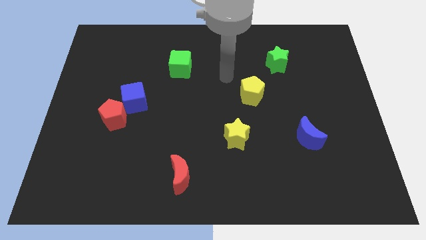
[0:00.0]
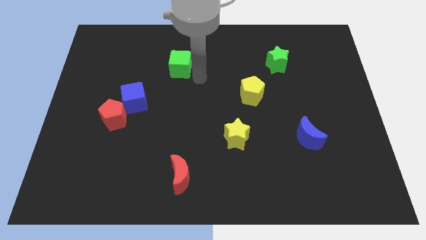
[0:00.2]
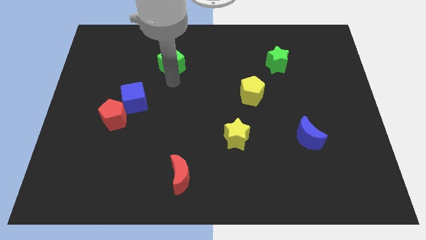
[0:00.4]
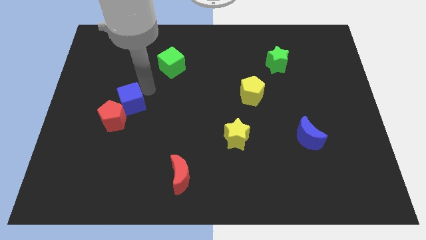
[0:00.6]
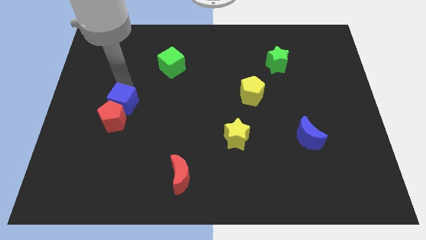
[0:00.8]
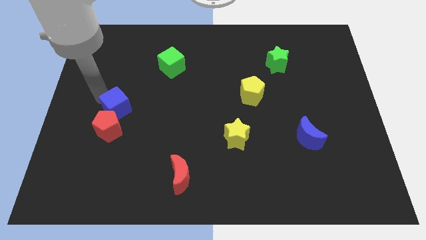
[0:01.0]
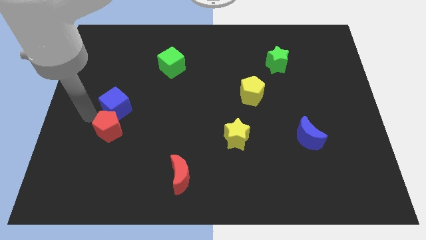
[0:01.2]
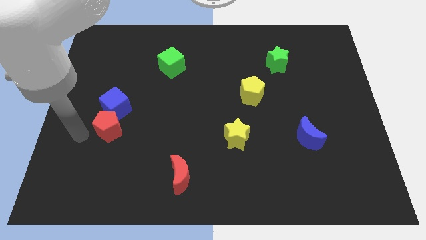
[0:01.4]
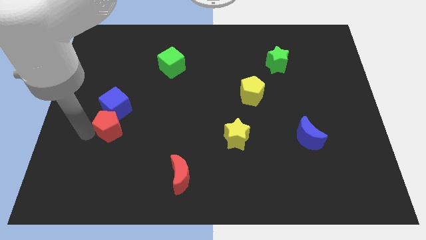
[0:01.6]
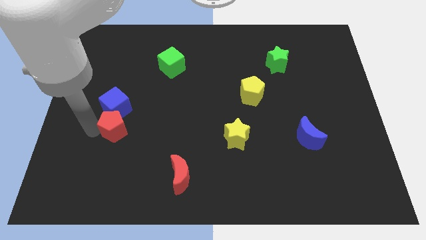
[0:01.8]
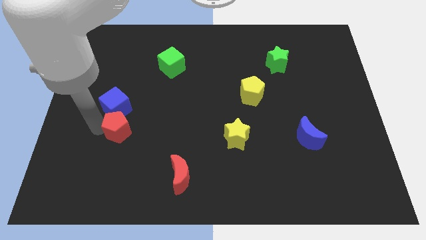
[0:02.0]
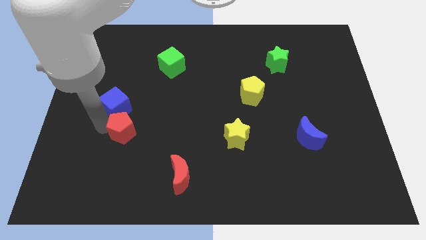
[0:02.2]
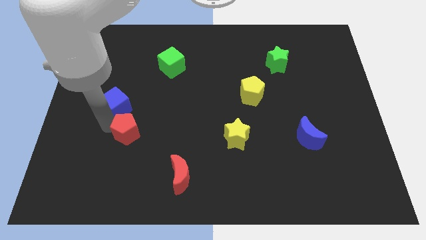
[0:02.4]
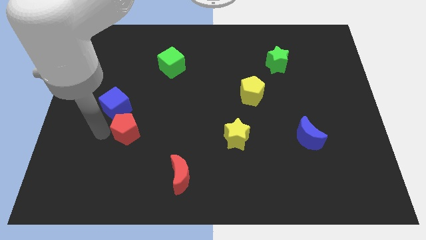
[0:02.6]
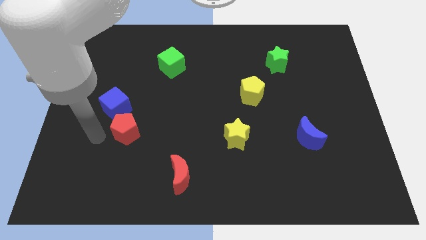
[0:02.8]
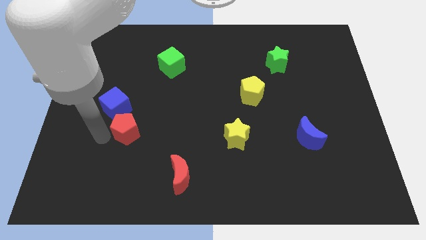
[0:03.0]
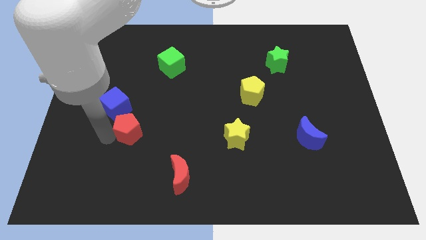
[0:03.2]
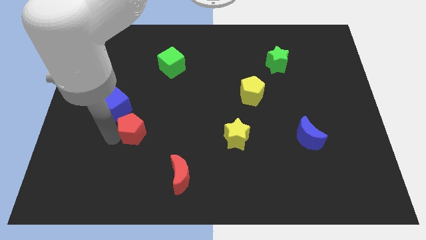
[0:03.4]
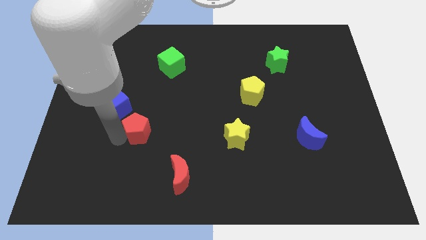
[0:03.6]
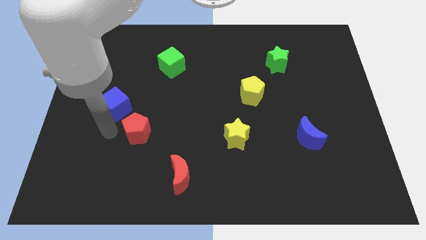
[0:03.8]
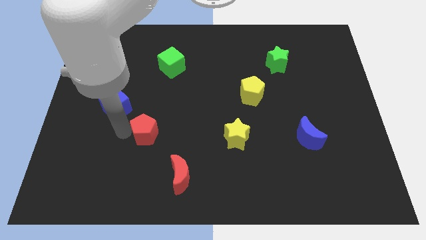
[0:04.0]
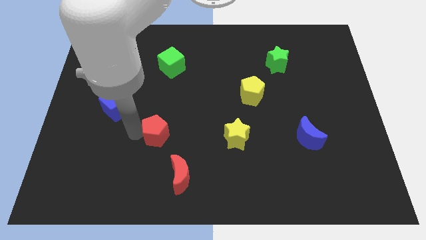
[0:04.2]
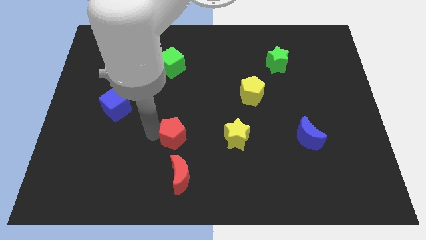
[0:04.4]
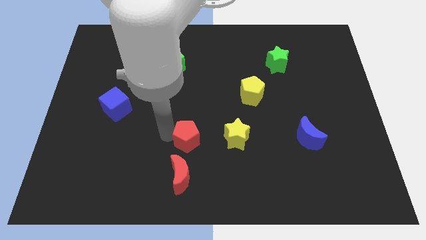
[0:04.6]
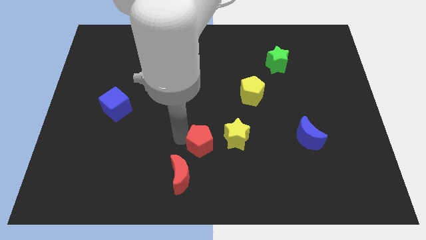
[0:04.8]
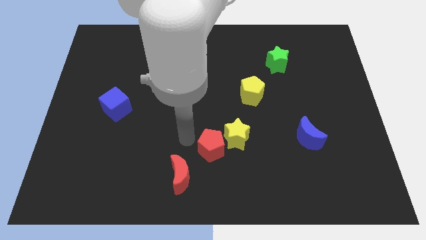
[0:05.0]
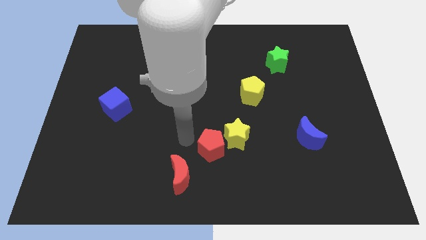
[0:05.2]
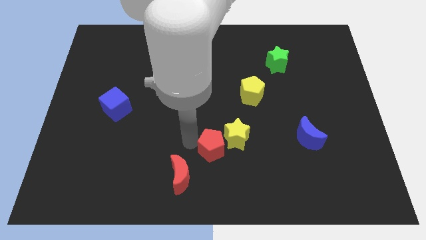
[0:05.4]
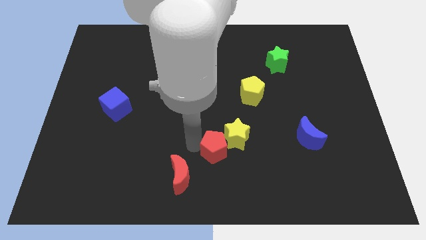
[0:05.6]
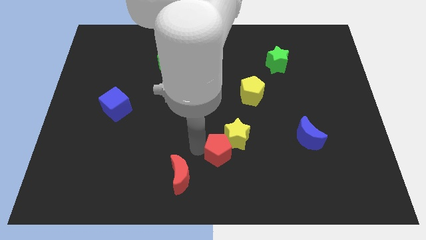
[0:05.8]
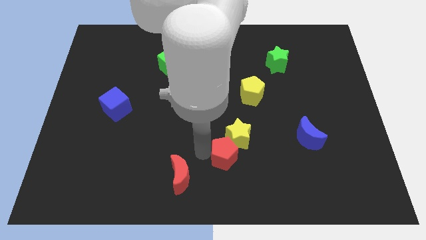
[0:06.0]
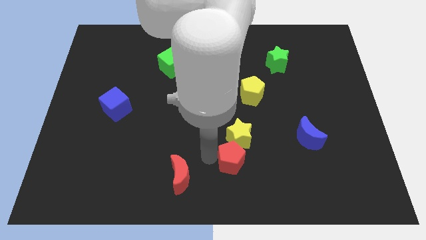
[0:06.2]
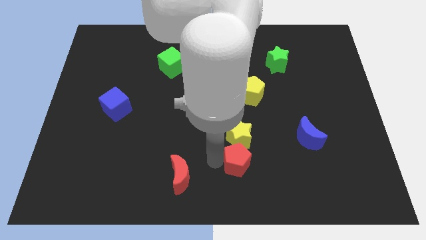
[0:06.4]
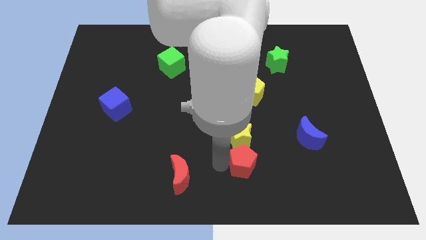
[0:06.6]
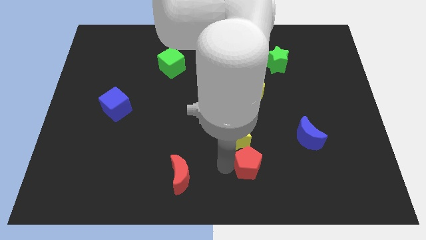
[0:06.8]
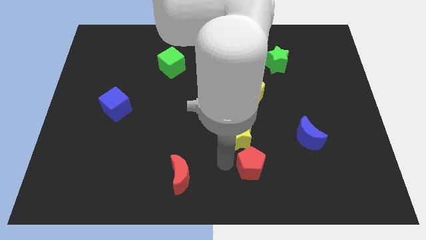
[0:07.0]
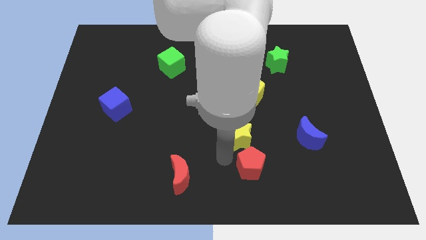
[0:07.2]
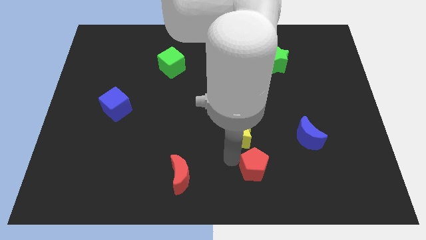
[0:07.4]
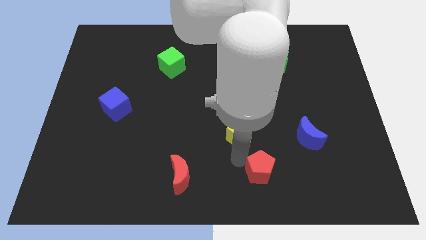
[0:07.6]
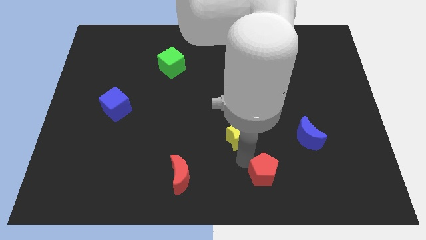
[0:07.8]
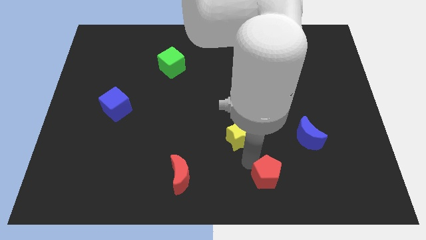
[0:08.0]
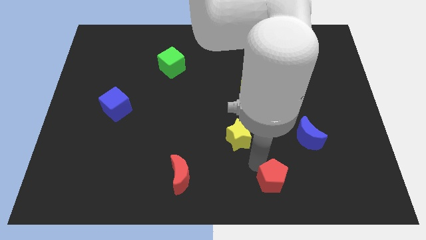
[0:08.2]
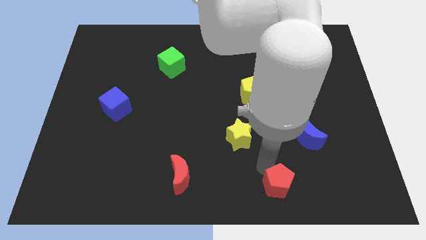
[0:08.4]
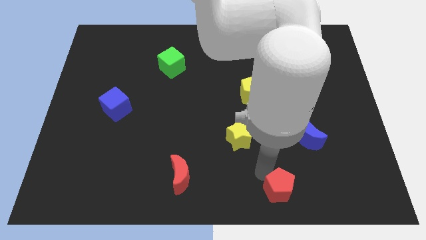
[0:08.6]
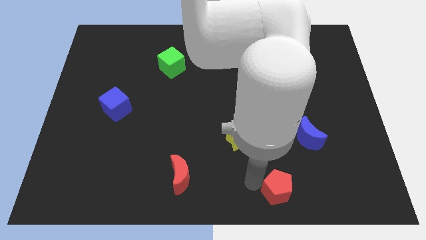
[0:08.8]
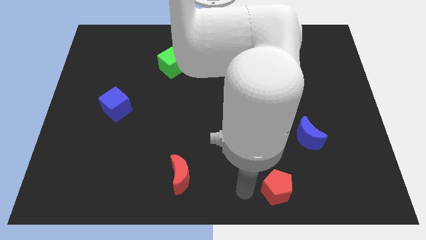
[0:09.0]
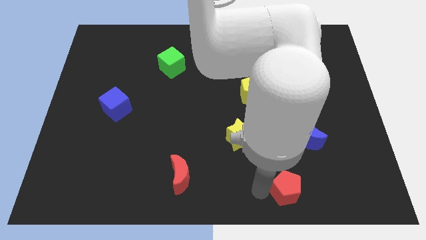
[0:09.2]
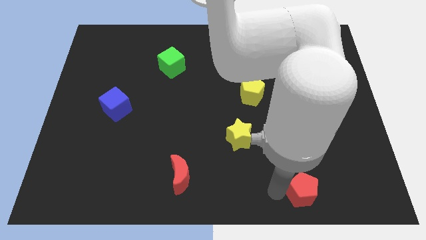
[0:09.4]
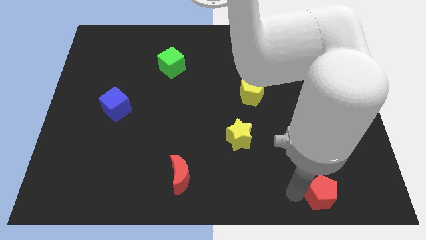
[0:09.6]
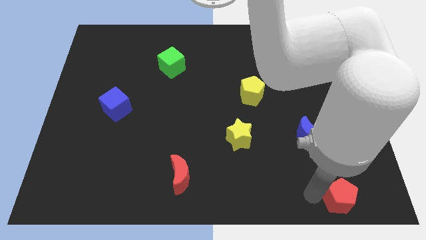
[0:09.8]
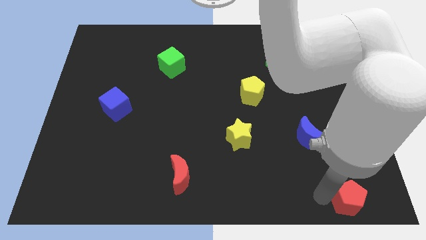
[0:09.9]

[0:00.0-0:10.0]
push the red pentagon to the bottom right of the board

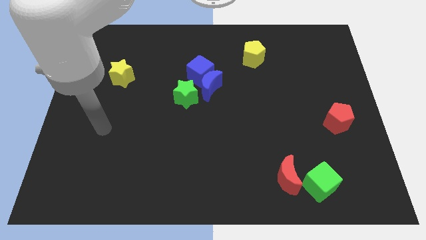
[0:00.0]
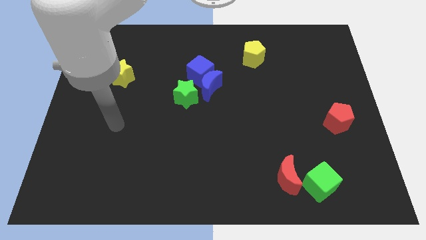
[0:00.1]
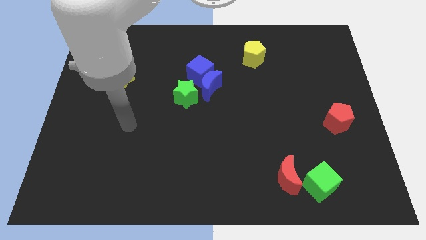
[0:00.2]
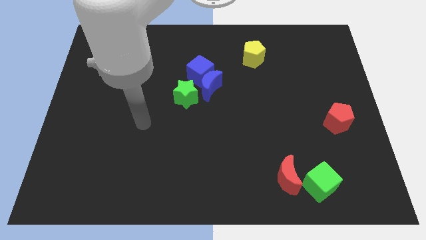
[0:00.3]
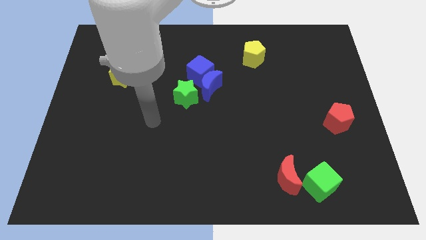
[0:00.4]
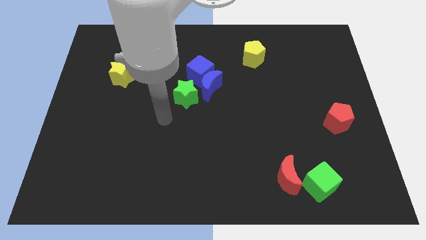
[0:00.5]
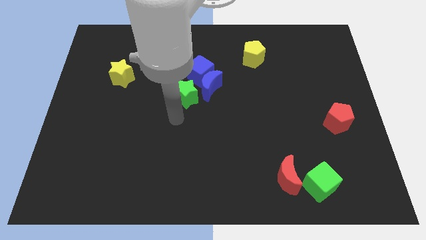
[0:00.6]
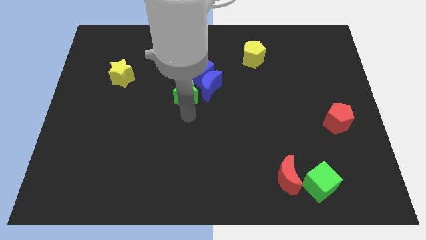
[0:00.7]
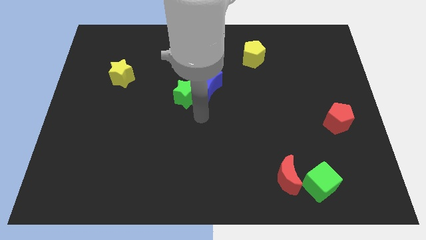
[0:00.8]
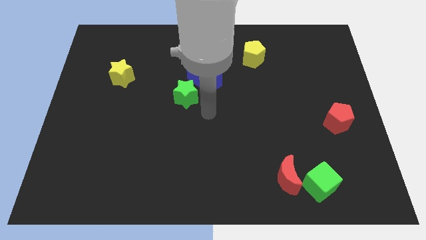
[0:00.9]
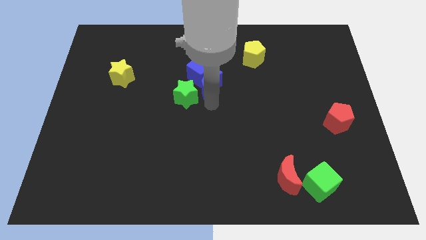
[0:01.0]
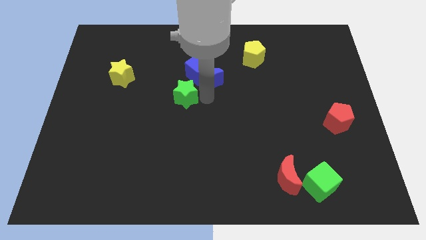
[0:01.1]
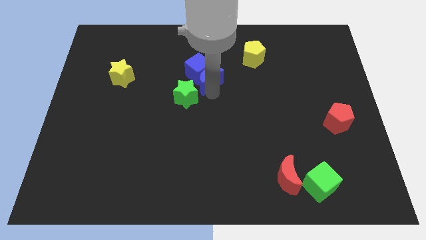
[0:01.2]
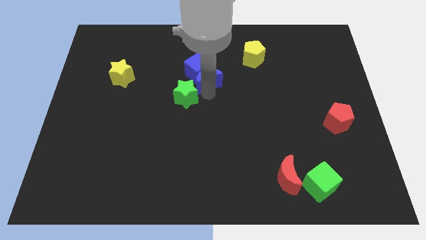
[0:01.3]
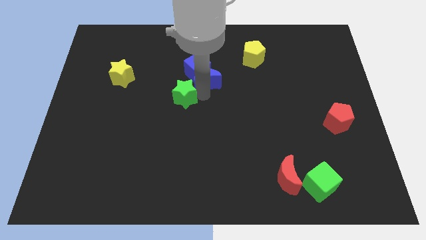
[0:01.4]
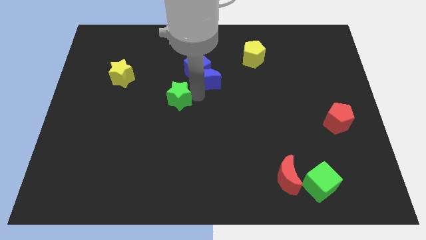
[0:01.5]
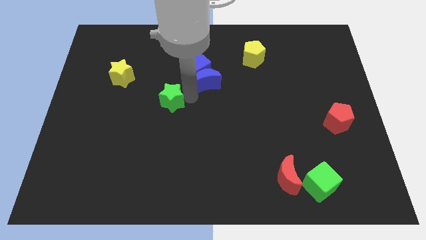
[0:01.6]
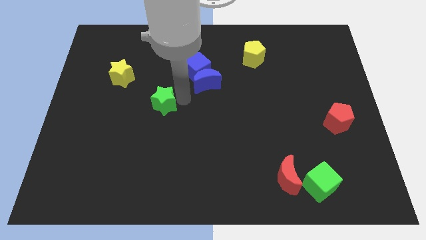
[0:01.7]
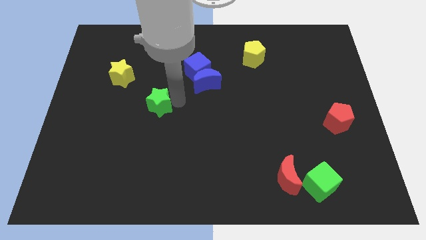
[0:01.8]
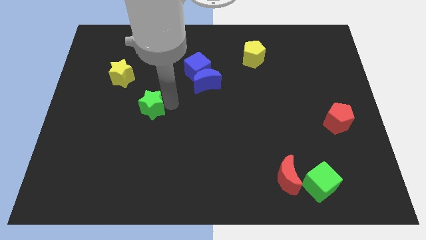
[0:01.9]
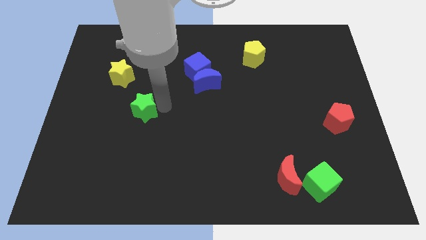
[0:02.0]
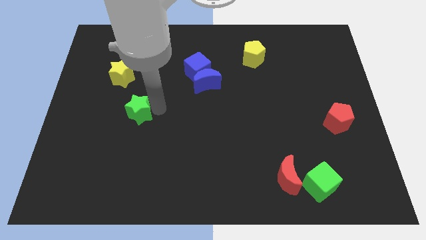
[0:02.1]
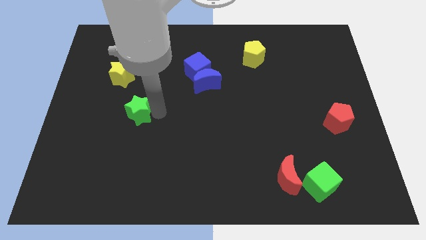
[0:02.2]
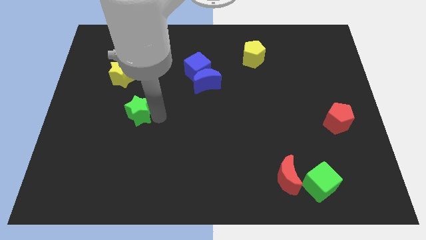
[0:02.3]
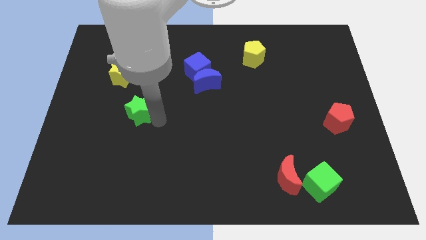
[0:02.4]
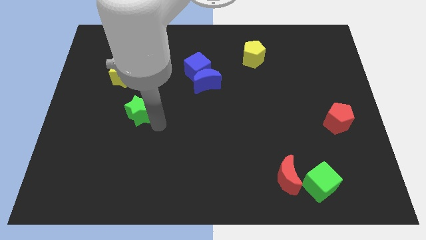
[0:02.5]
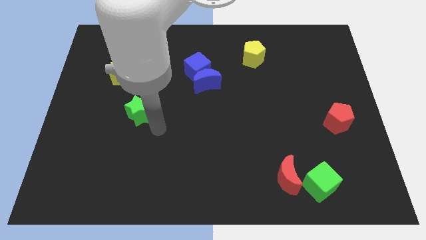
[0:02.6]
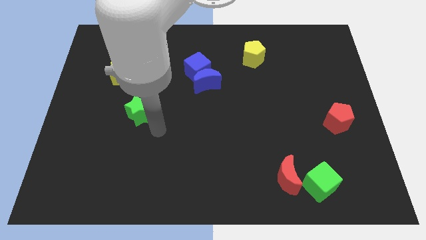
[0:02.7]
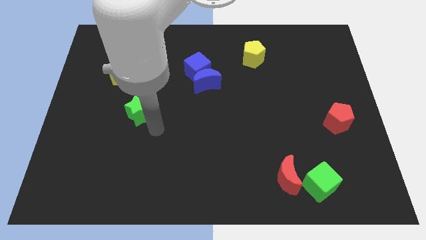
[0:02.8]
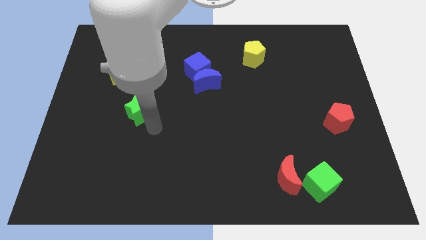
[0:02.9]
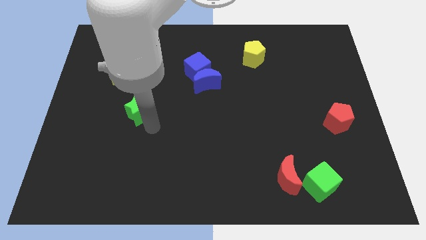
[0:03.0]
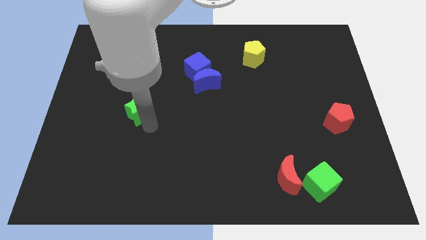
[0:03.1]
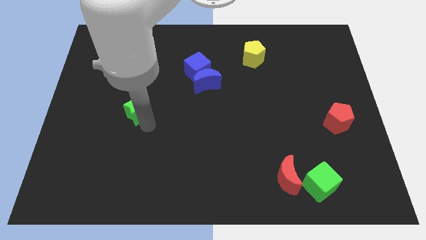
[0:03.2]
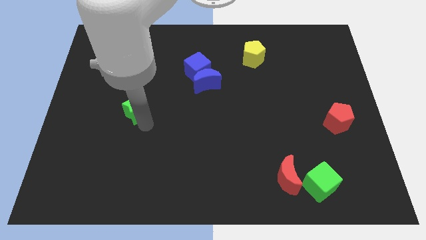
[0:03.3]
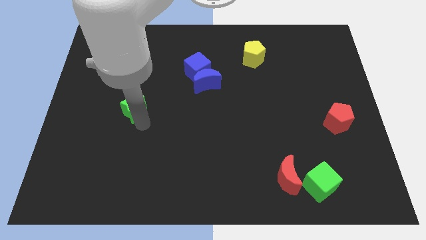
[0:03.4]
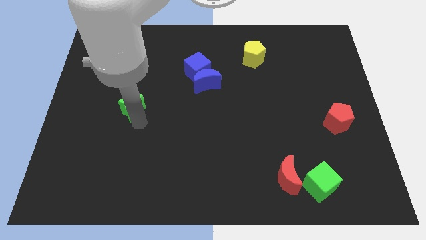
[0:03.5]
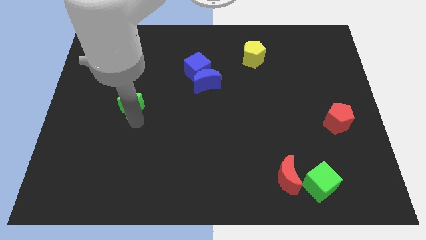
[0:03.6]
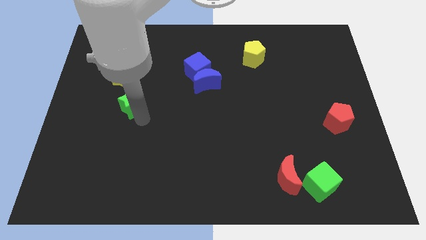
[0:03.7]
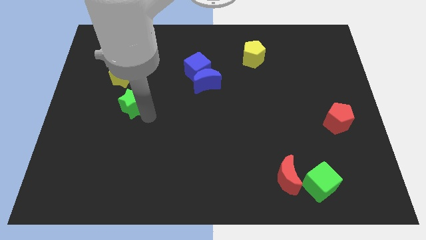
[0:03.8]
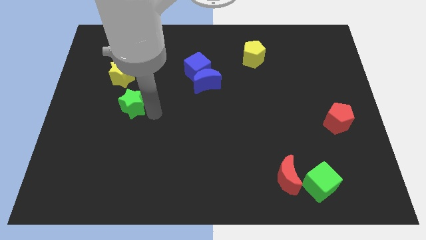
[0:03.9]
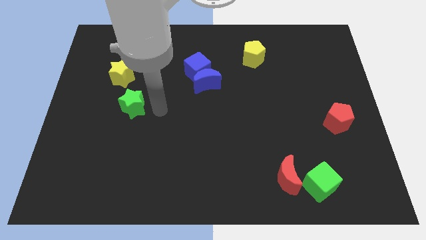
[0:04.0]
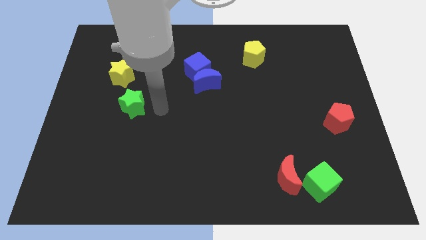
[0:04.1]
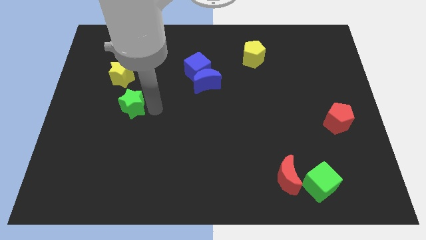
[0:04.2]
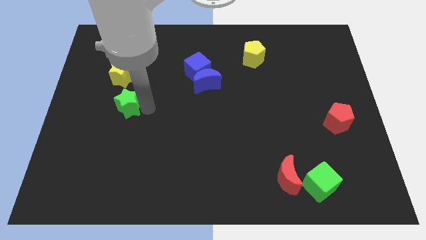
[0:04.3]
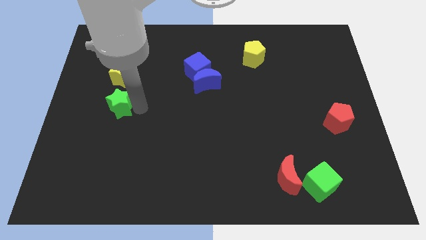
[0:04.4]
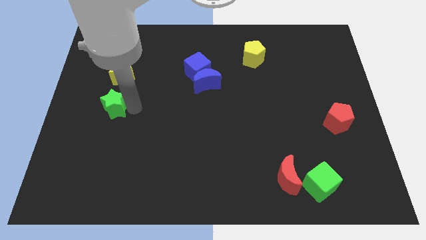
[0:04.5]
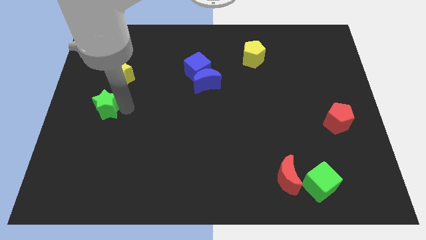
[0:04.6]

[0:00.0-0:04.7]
push the green star to the left side
